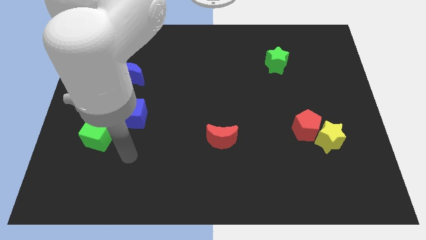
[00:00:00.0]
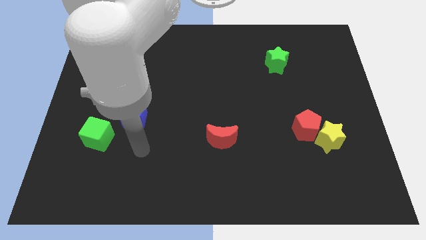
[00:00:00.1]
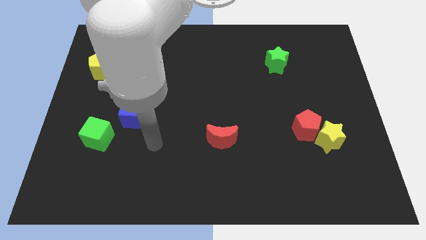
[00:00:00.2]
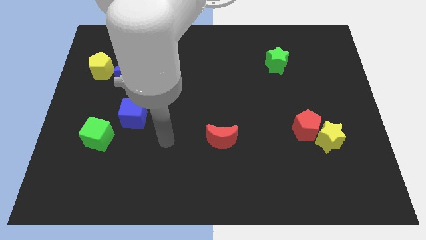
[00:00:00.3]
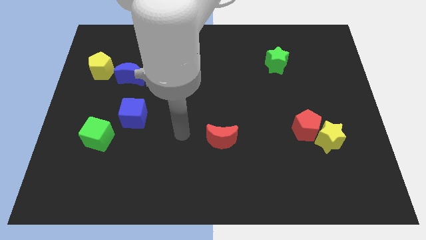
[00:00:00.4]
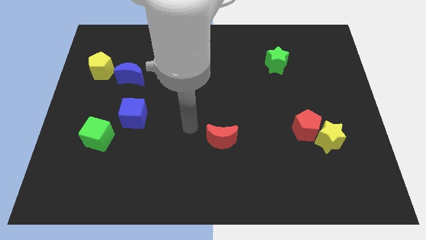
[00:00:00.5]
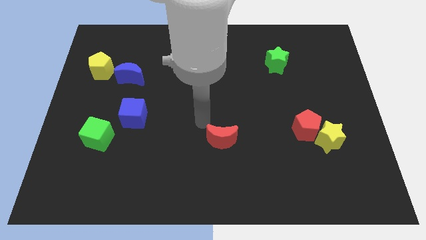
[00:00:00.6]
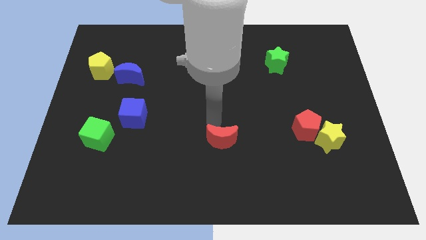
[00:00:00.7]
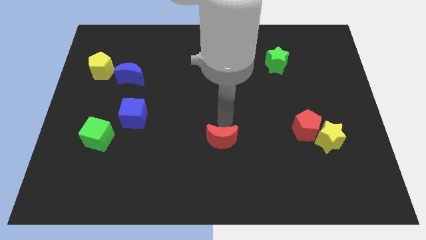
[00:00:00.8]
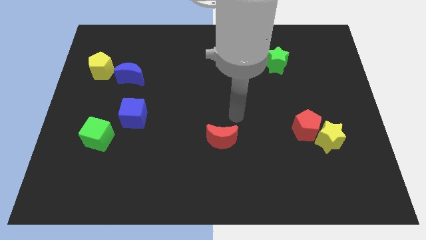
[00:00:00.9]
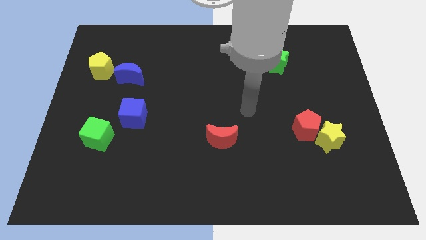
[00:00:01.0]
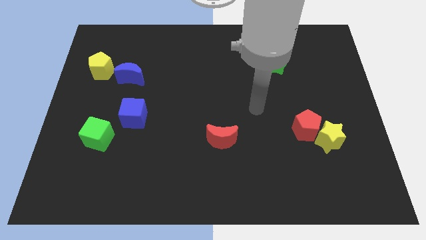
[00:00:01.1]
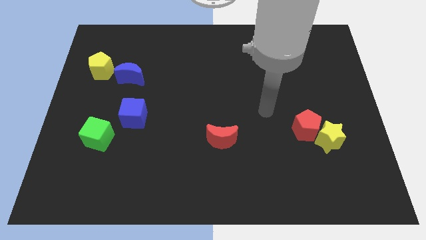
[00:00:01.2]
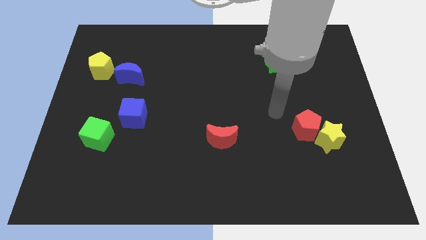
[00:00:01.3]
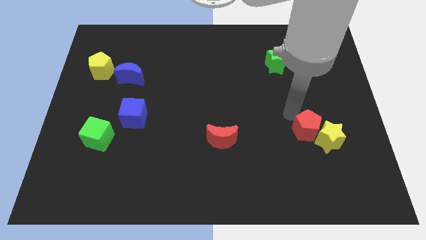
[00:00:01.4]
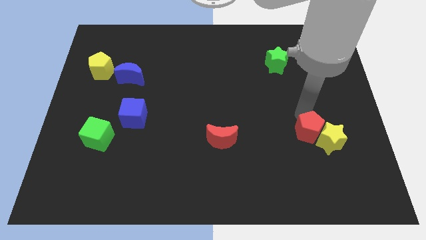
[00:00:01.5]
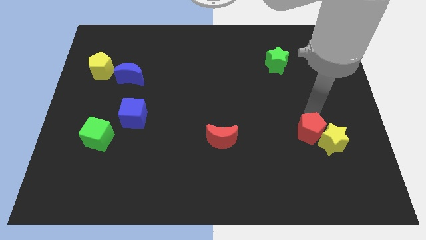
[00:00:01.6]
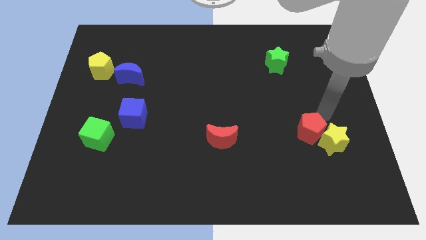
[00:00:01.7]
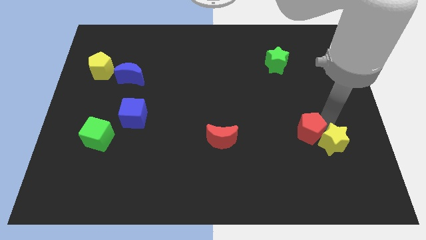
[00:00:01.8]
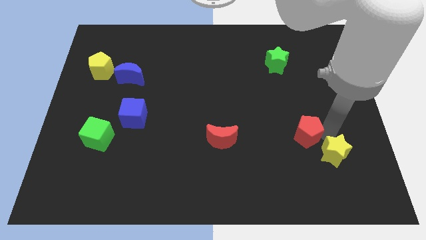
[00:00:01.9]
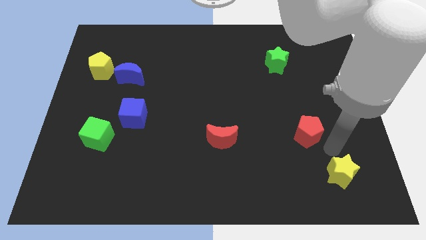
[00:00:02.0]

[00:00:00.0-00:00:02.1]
move the red pentagon away from the yellow star

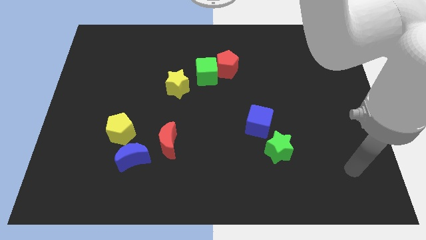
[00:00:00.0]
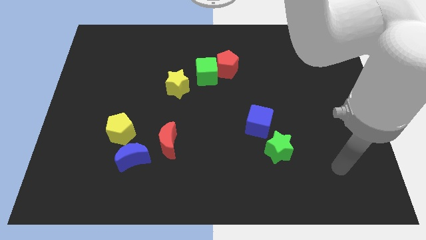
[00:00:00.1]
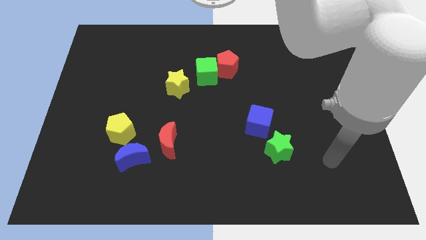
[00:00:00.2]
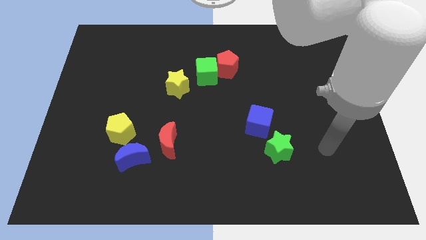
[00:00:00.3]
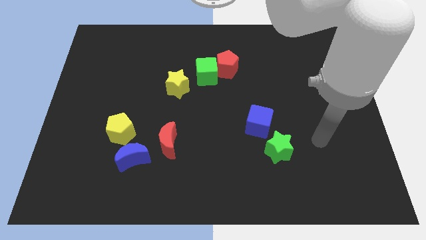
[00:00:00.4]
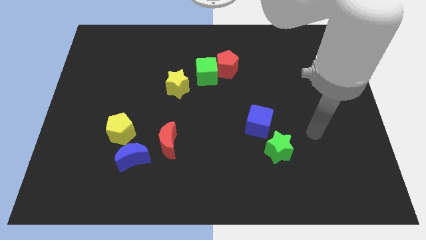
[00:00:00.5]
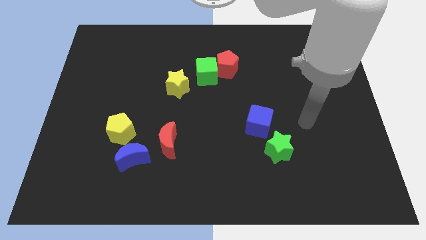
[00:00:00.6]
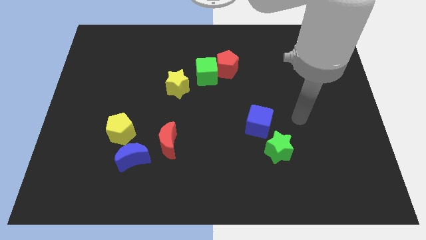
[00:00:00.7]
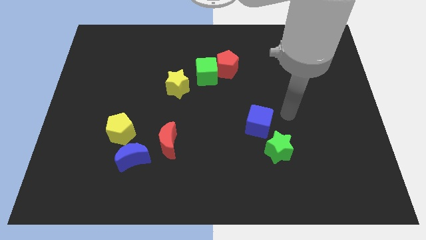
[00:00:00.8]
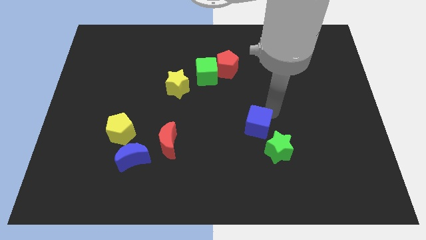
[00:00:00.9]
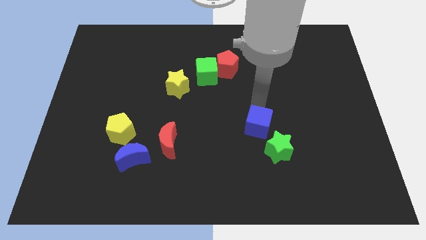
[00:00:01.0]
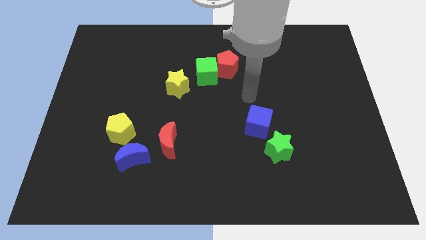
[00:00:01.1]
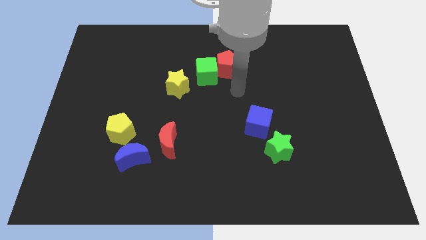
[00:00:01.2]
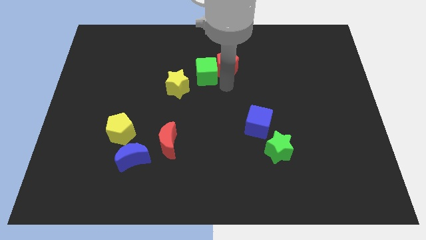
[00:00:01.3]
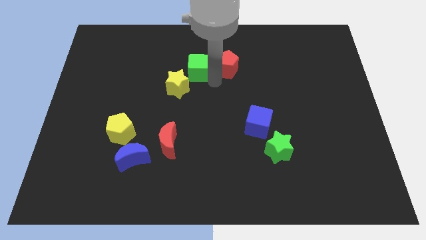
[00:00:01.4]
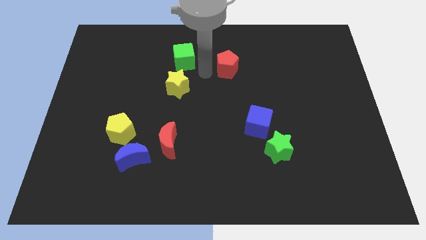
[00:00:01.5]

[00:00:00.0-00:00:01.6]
pull the red pentagon apart from the green cube

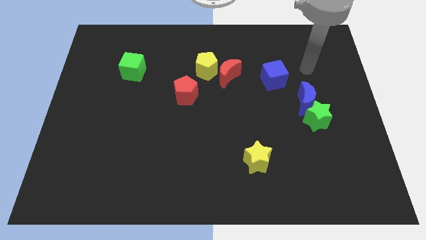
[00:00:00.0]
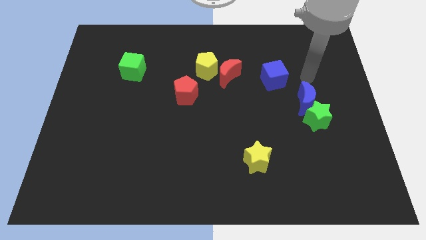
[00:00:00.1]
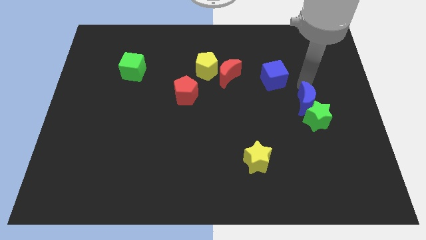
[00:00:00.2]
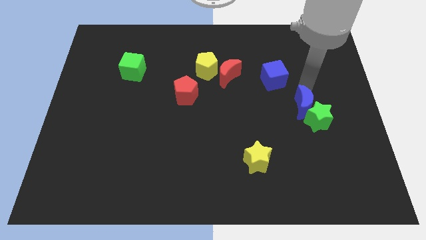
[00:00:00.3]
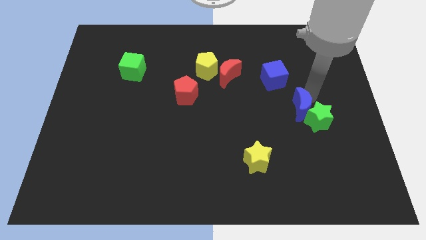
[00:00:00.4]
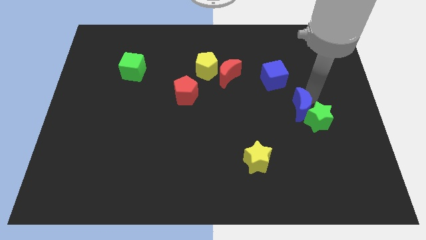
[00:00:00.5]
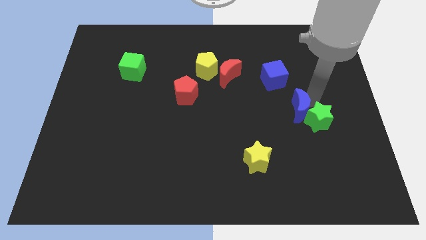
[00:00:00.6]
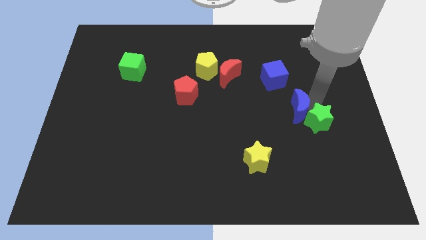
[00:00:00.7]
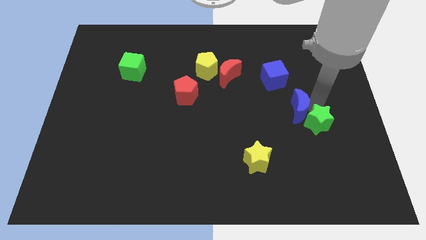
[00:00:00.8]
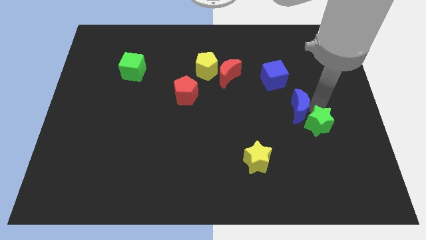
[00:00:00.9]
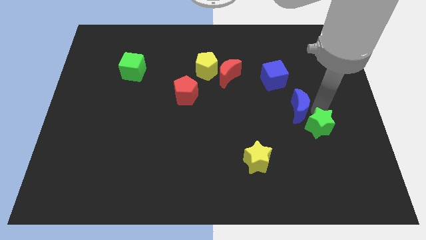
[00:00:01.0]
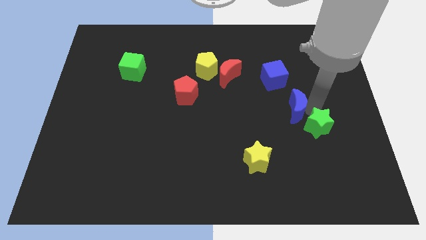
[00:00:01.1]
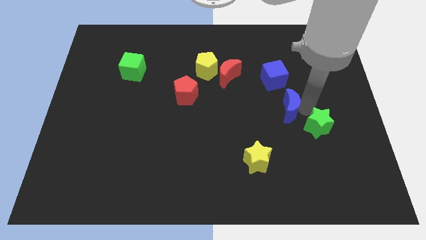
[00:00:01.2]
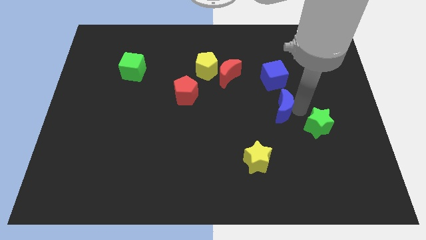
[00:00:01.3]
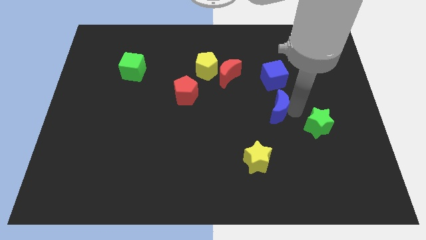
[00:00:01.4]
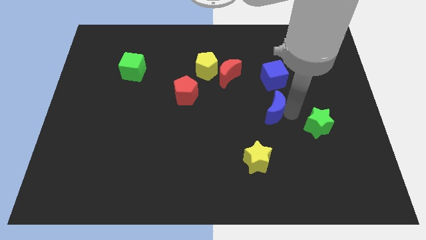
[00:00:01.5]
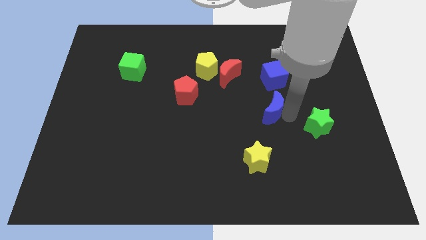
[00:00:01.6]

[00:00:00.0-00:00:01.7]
pull the green star apart from the blue moon

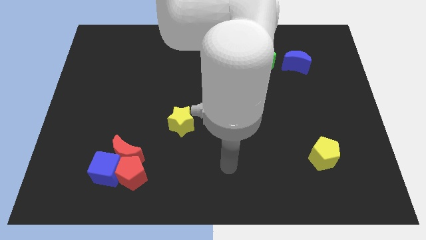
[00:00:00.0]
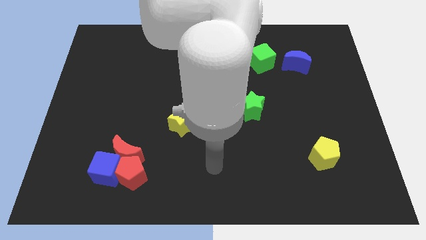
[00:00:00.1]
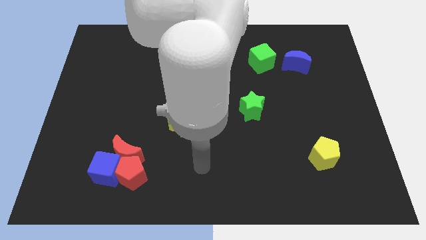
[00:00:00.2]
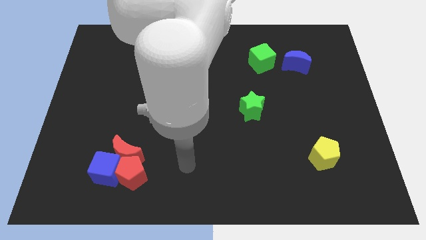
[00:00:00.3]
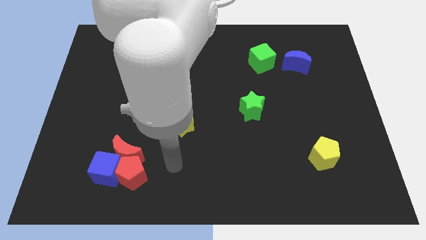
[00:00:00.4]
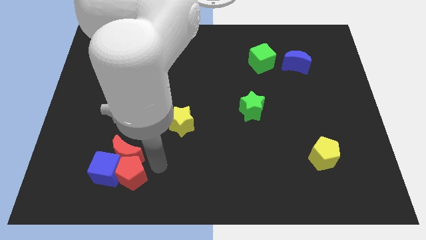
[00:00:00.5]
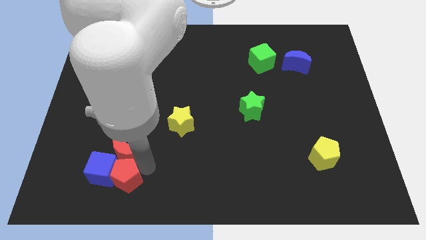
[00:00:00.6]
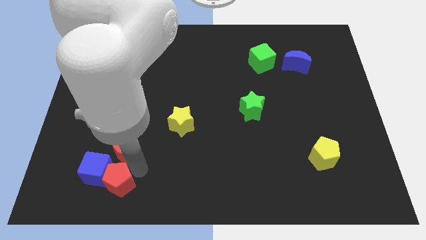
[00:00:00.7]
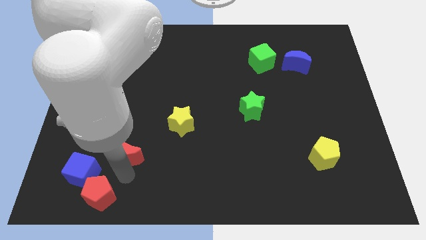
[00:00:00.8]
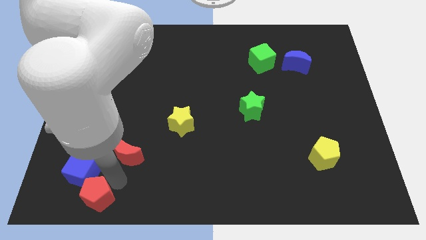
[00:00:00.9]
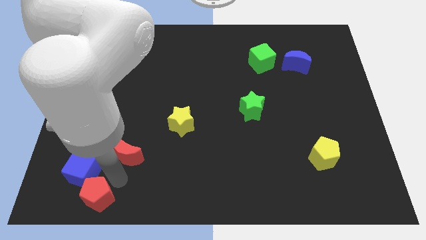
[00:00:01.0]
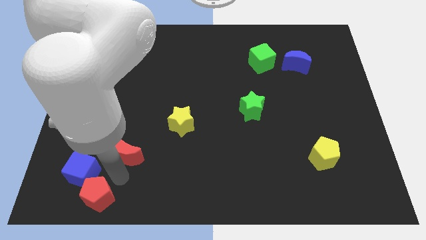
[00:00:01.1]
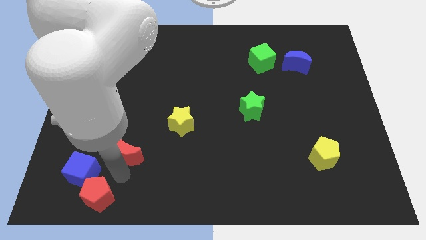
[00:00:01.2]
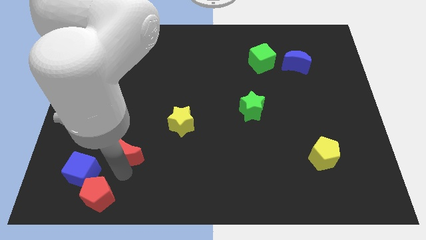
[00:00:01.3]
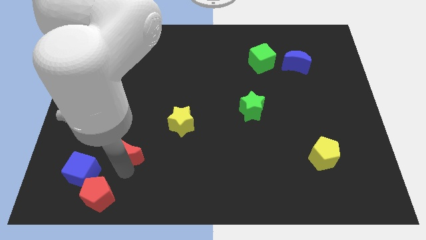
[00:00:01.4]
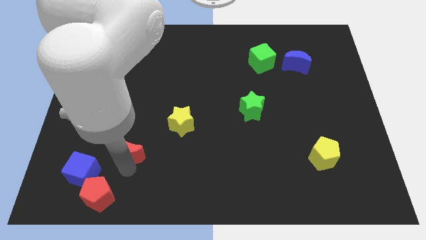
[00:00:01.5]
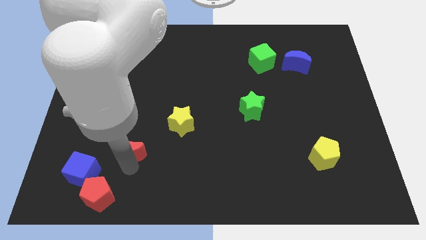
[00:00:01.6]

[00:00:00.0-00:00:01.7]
separate the red moon from the red pentagon and blue cube

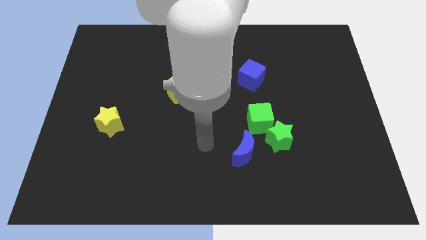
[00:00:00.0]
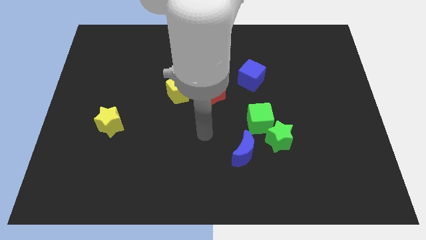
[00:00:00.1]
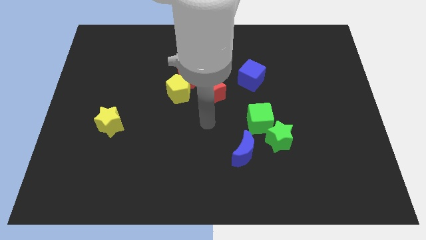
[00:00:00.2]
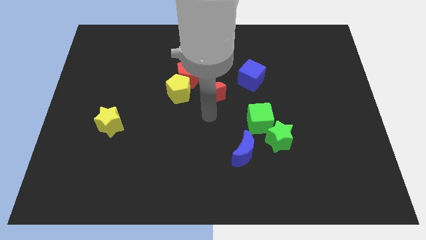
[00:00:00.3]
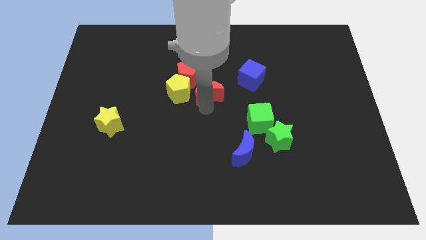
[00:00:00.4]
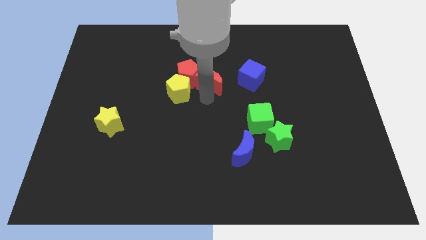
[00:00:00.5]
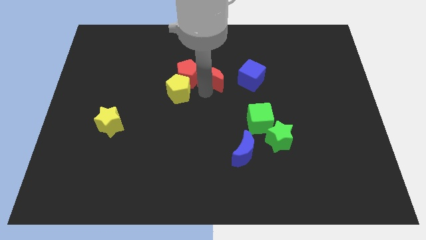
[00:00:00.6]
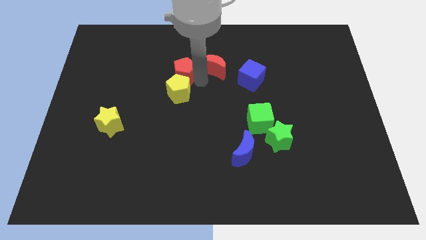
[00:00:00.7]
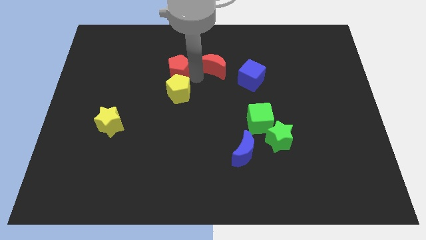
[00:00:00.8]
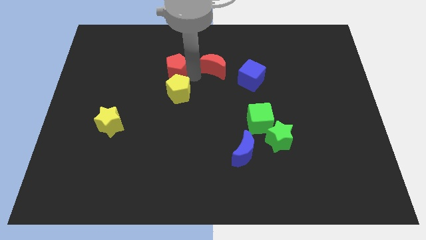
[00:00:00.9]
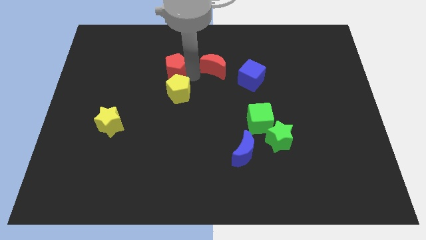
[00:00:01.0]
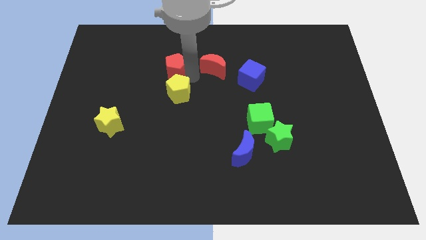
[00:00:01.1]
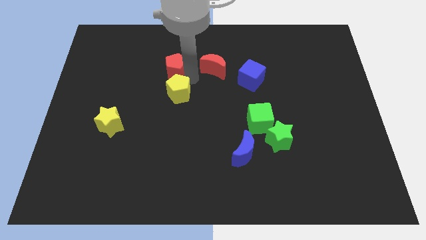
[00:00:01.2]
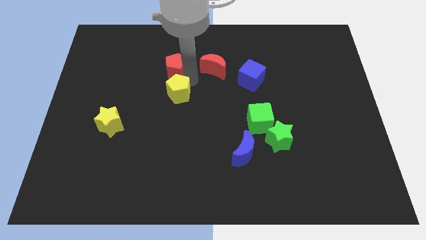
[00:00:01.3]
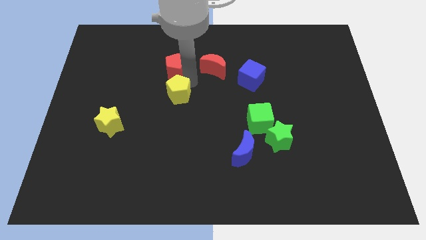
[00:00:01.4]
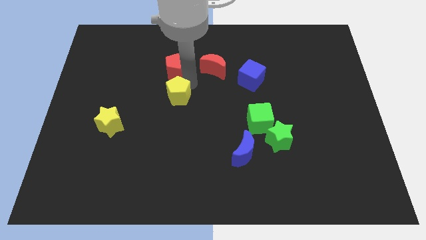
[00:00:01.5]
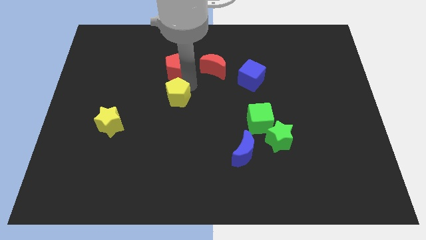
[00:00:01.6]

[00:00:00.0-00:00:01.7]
move the yellow pentagon away from the red pentagon and red moon

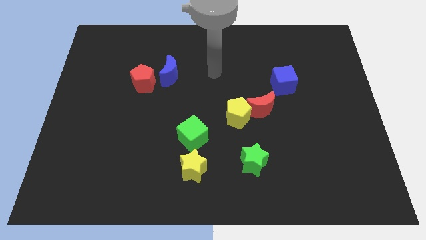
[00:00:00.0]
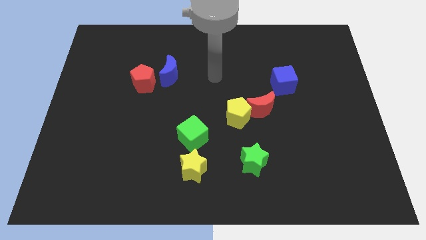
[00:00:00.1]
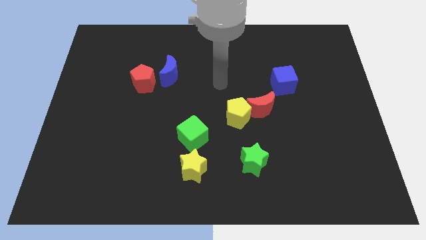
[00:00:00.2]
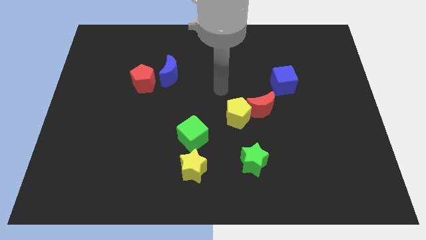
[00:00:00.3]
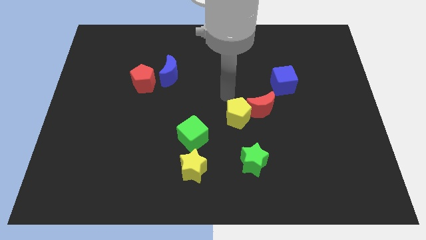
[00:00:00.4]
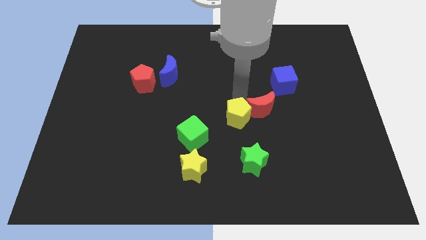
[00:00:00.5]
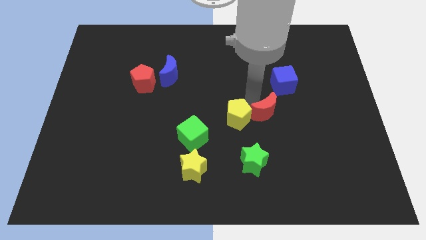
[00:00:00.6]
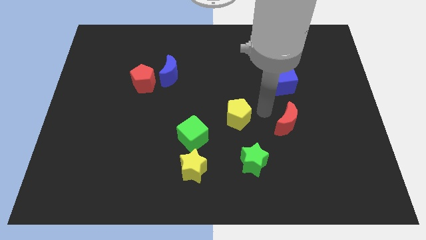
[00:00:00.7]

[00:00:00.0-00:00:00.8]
move the yellow pentagon away from the red moon
